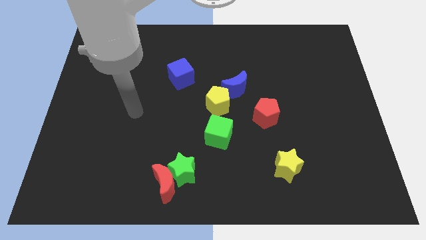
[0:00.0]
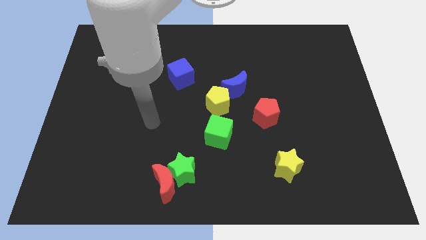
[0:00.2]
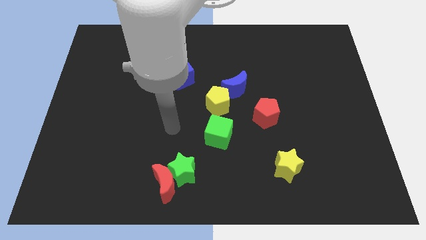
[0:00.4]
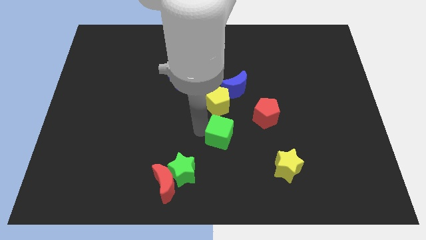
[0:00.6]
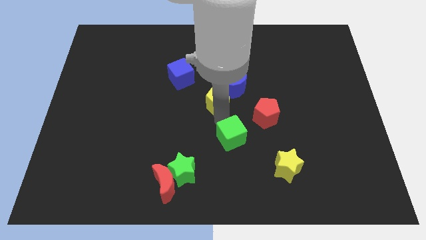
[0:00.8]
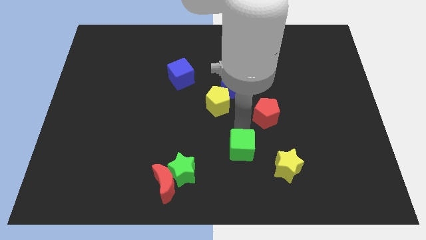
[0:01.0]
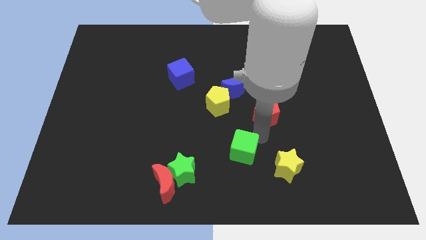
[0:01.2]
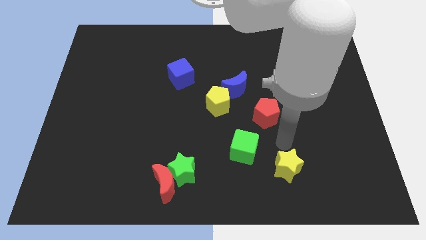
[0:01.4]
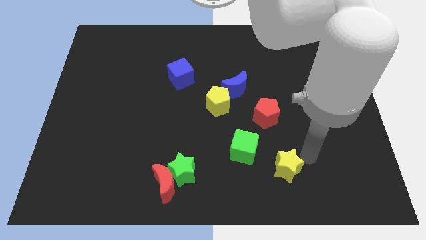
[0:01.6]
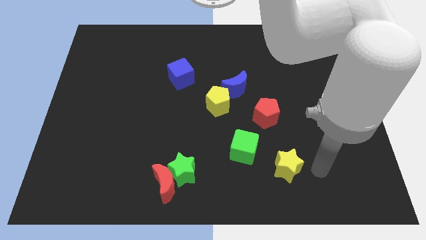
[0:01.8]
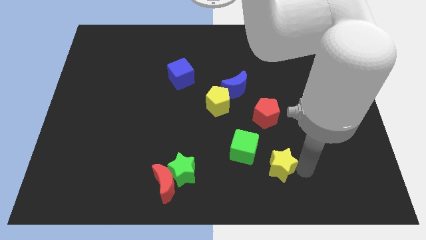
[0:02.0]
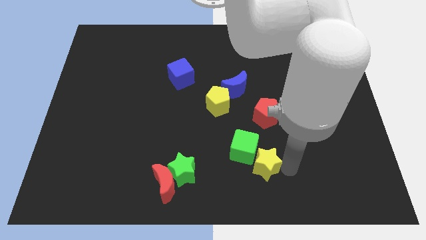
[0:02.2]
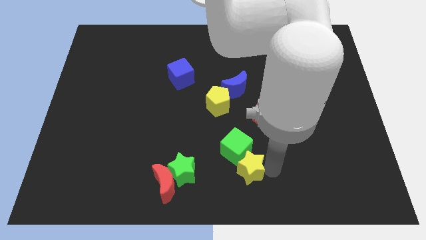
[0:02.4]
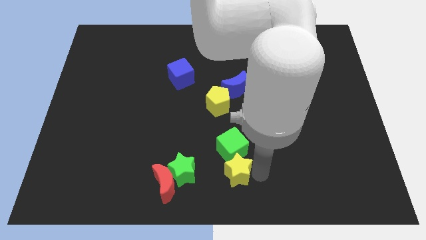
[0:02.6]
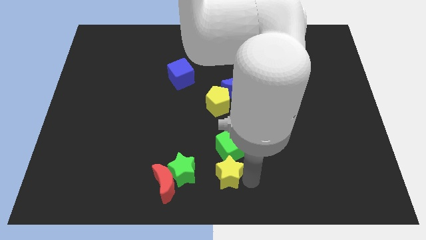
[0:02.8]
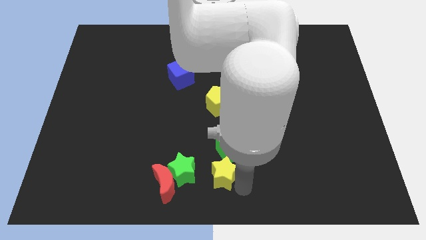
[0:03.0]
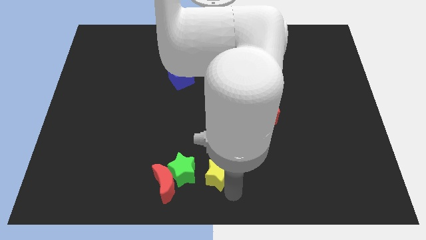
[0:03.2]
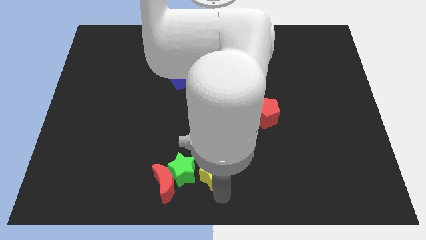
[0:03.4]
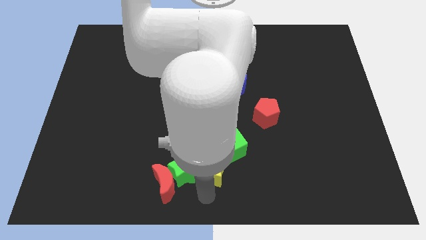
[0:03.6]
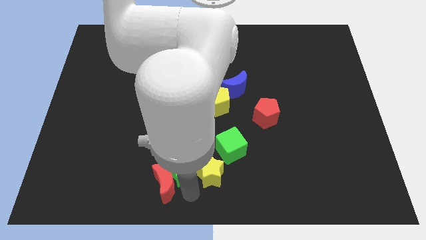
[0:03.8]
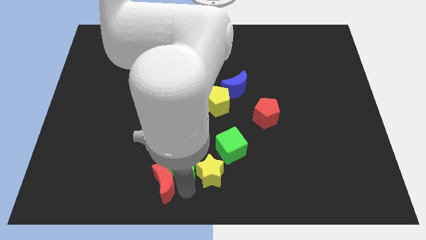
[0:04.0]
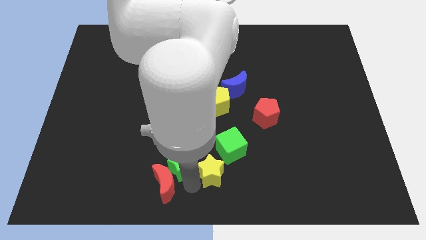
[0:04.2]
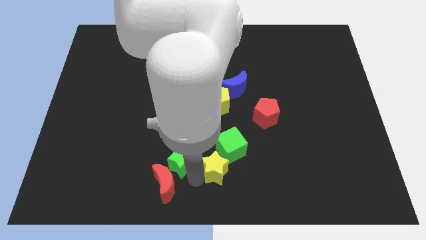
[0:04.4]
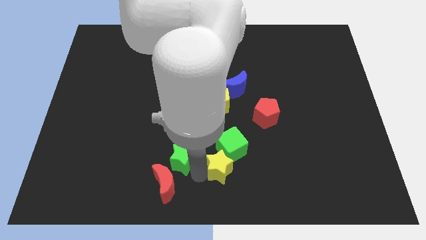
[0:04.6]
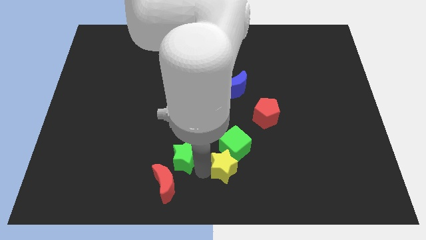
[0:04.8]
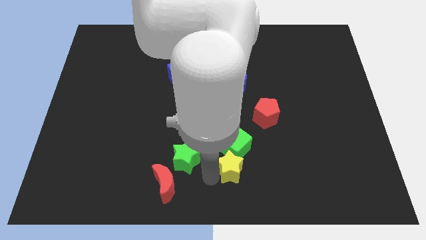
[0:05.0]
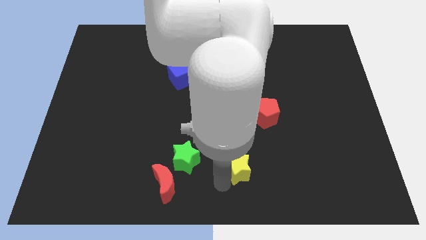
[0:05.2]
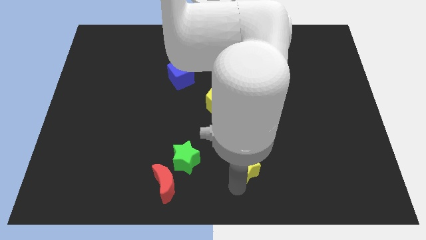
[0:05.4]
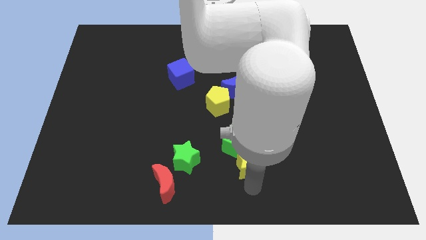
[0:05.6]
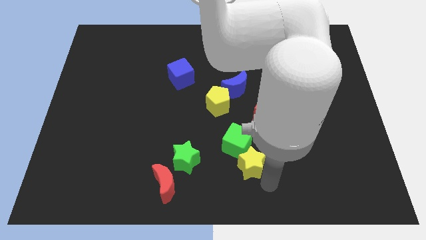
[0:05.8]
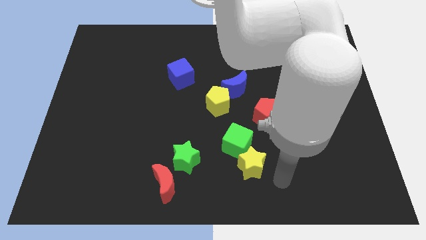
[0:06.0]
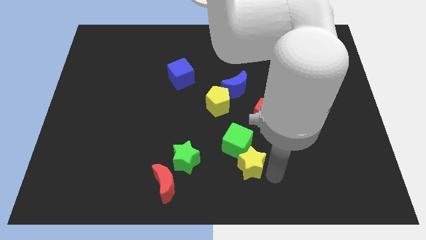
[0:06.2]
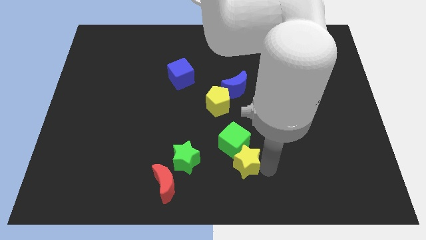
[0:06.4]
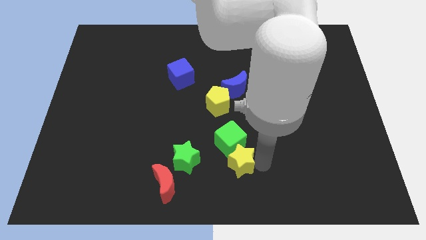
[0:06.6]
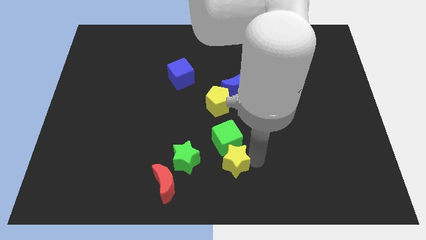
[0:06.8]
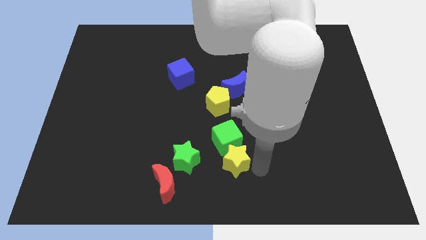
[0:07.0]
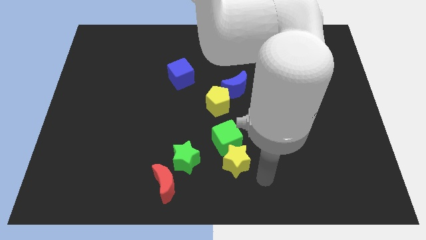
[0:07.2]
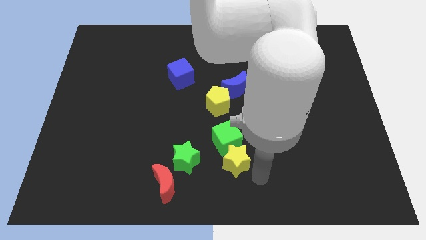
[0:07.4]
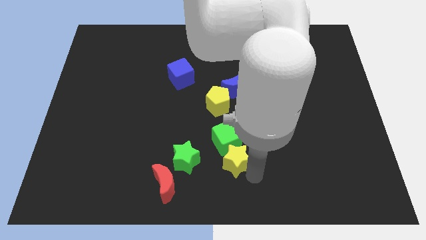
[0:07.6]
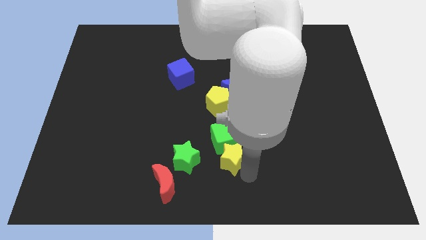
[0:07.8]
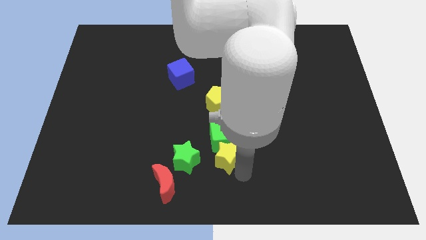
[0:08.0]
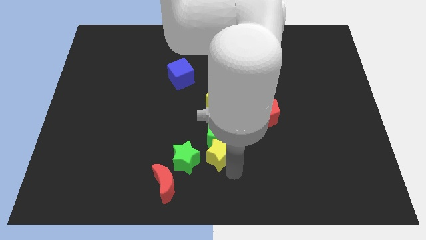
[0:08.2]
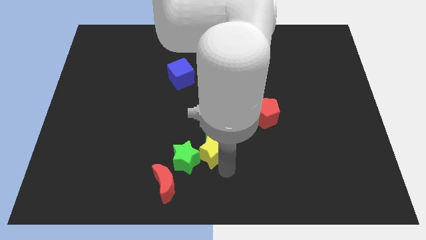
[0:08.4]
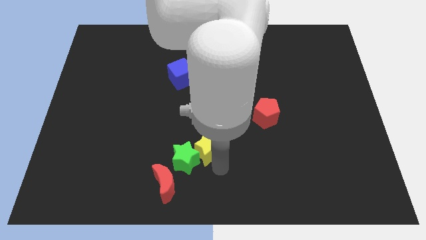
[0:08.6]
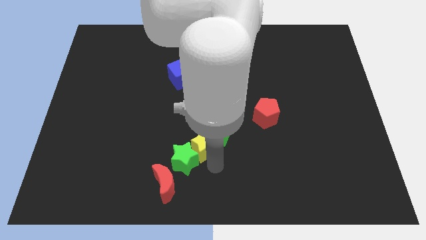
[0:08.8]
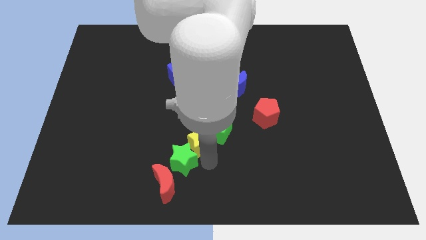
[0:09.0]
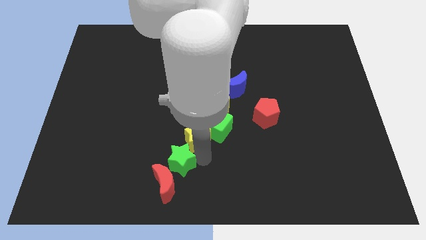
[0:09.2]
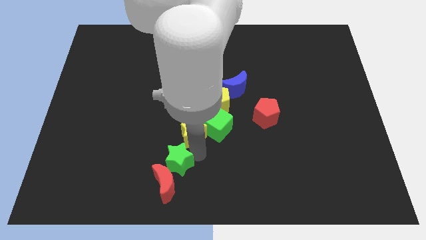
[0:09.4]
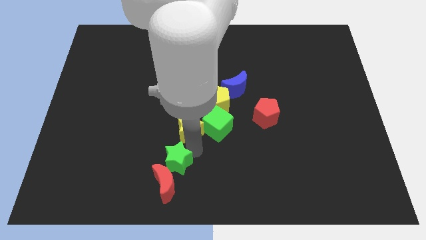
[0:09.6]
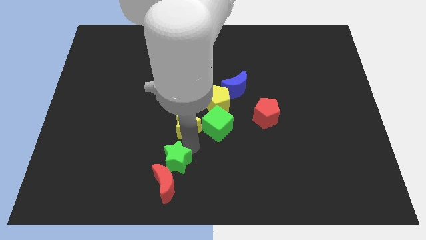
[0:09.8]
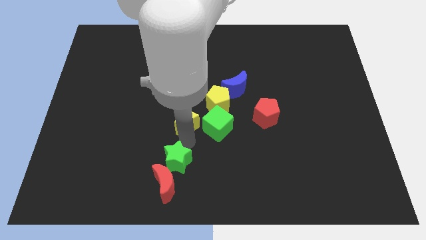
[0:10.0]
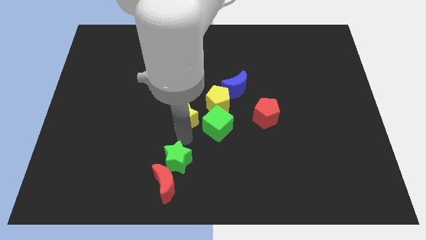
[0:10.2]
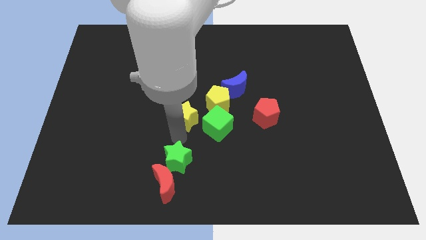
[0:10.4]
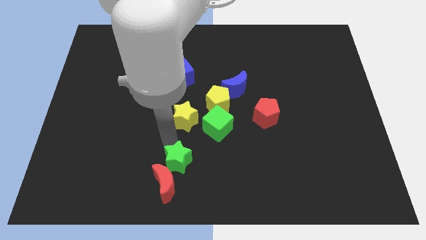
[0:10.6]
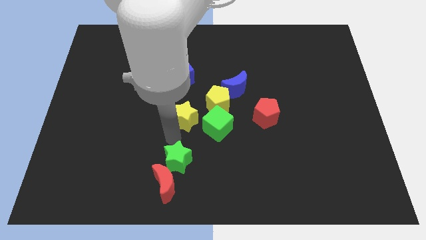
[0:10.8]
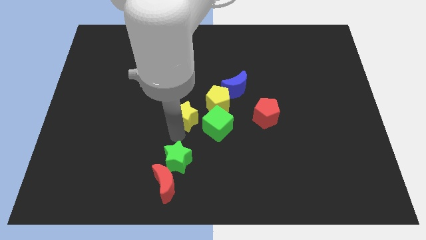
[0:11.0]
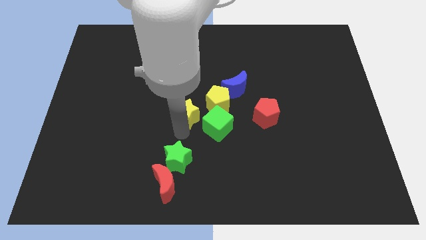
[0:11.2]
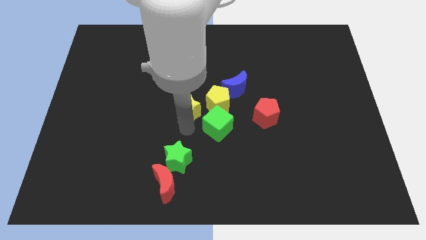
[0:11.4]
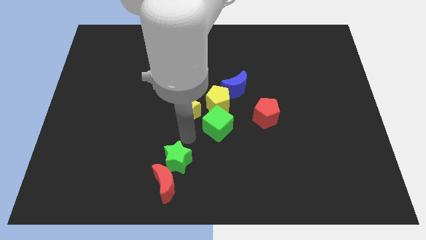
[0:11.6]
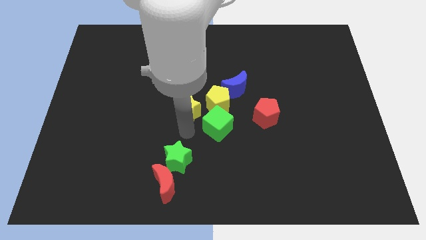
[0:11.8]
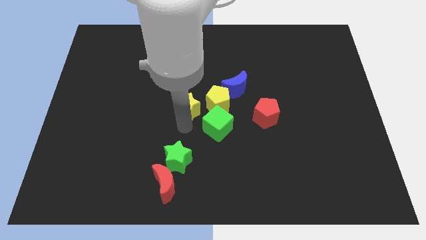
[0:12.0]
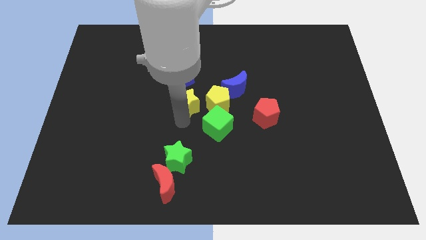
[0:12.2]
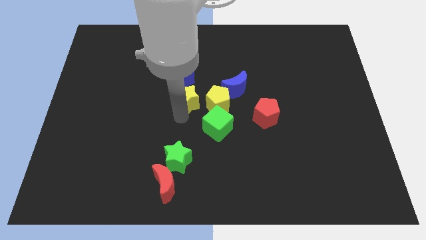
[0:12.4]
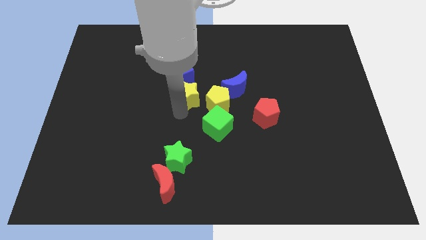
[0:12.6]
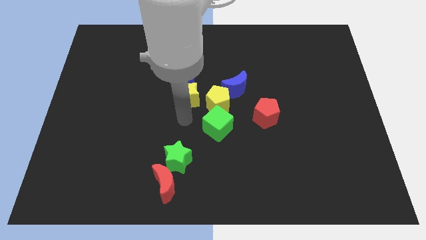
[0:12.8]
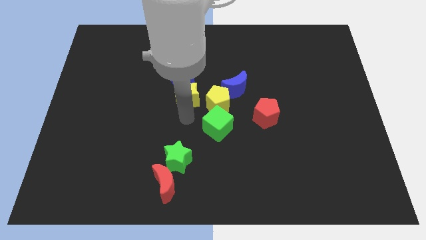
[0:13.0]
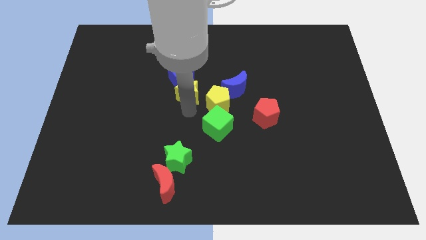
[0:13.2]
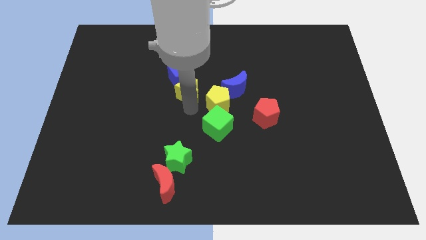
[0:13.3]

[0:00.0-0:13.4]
push the yellow star towards the blue cube
